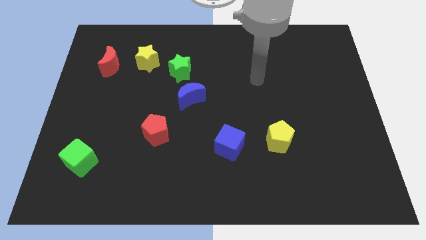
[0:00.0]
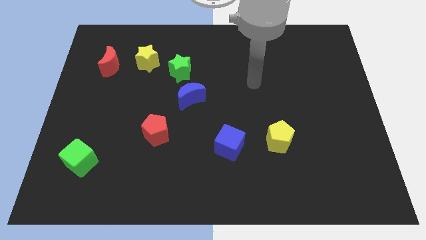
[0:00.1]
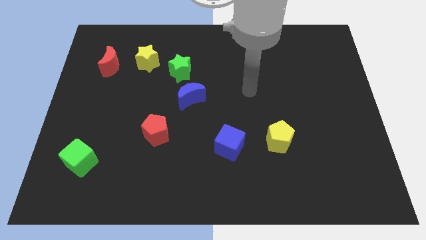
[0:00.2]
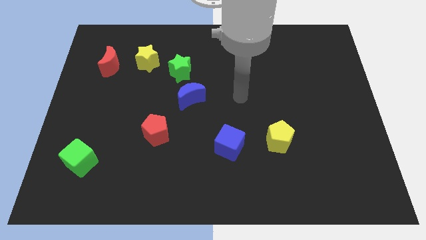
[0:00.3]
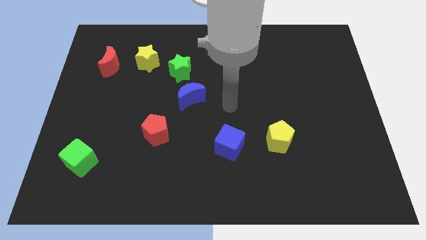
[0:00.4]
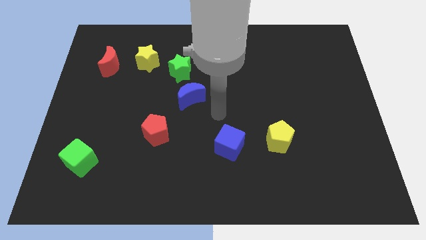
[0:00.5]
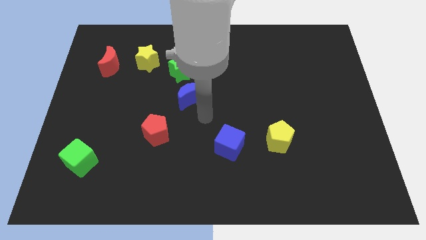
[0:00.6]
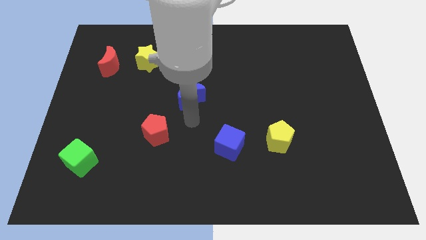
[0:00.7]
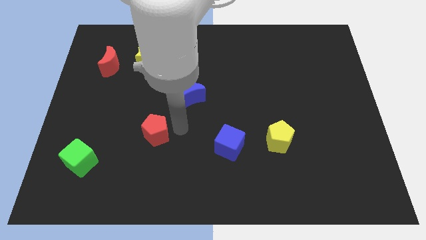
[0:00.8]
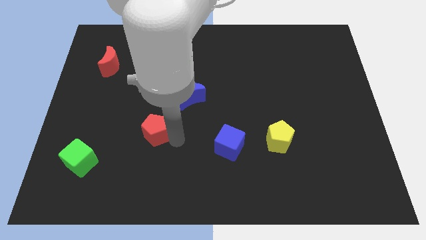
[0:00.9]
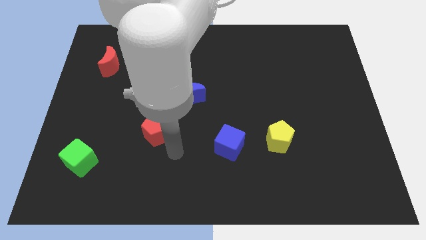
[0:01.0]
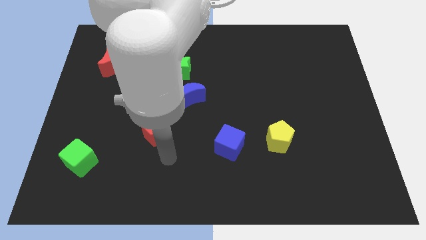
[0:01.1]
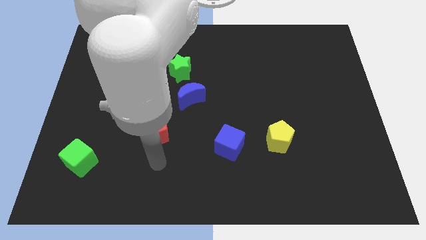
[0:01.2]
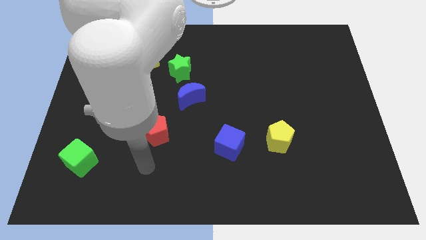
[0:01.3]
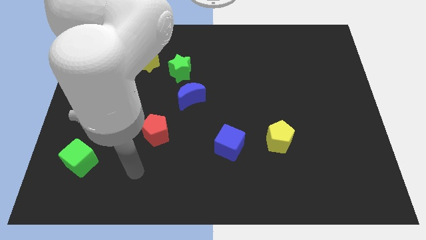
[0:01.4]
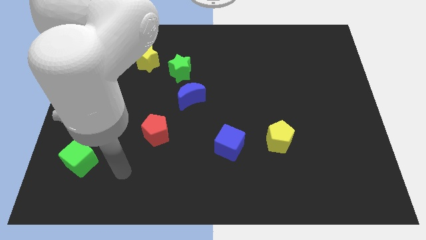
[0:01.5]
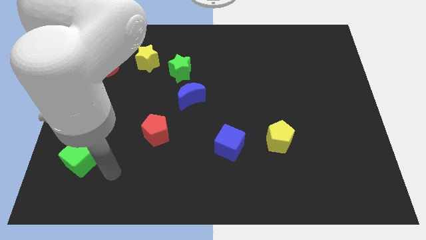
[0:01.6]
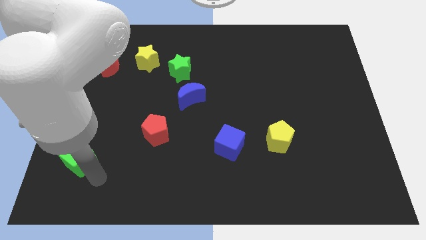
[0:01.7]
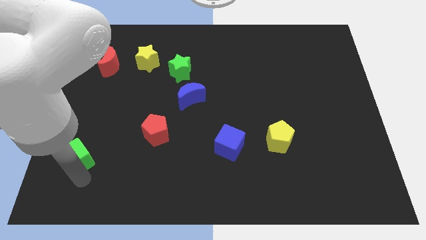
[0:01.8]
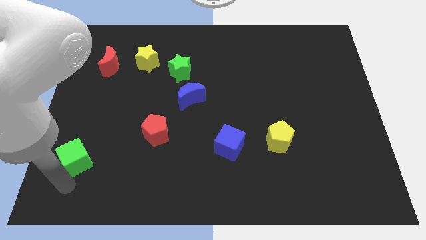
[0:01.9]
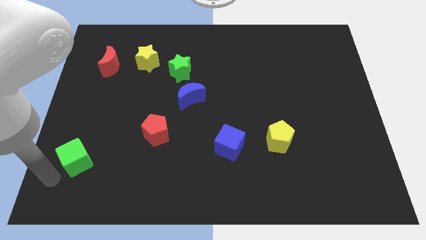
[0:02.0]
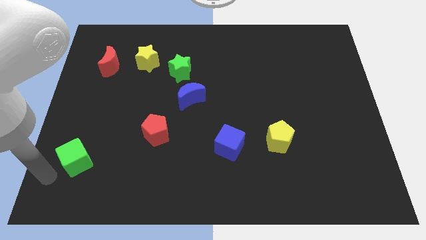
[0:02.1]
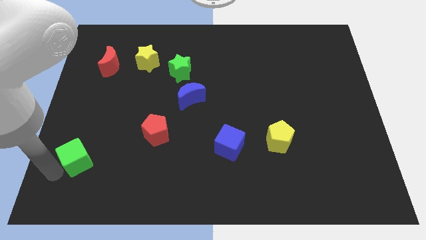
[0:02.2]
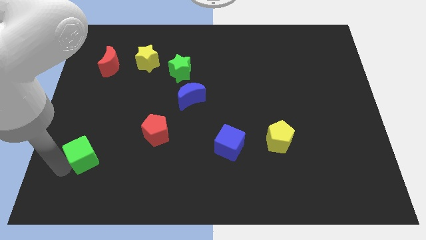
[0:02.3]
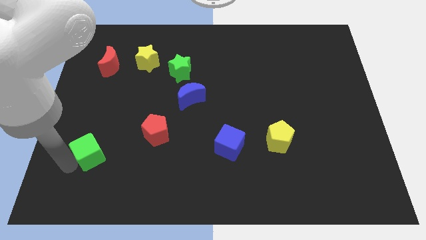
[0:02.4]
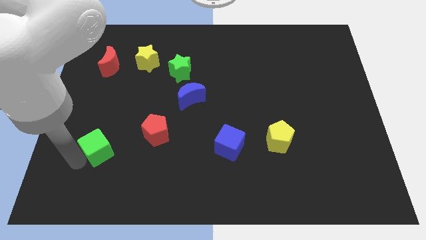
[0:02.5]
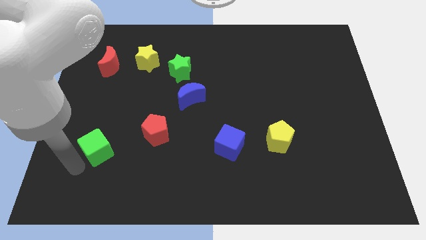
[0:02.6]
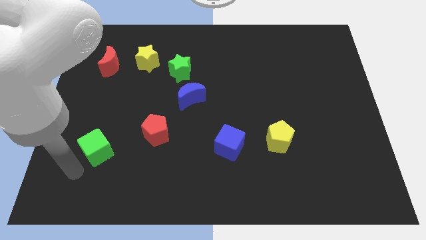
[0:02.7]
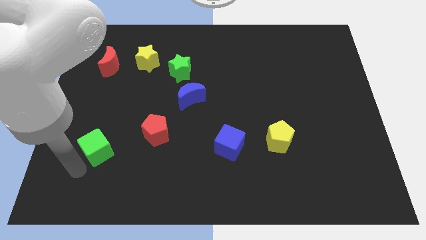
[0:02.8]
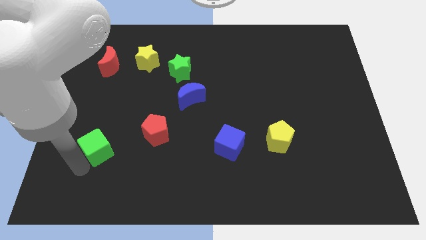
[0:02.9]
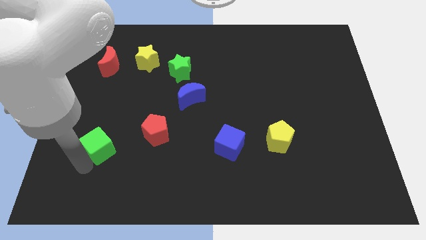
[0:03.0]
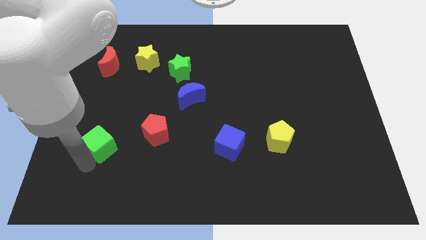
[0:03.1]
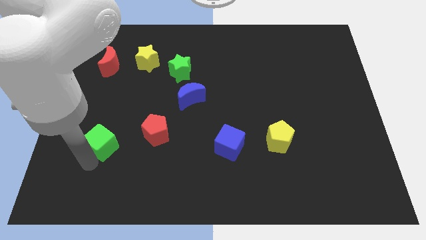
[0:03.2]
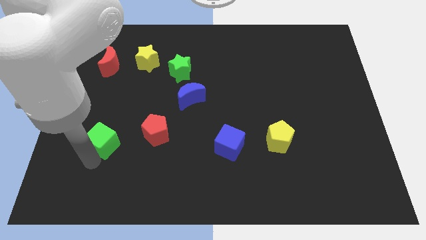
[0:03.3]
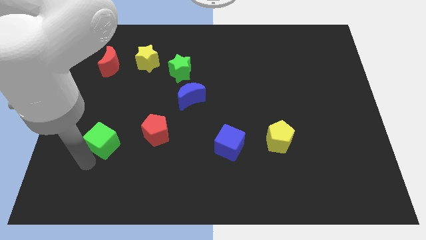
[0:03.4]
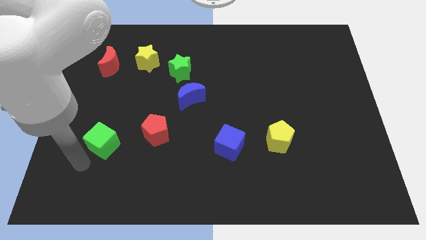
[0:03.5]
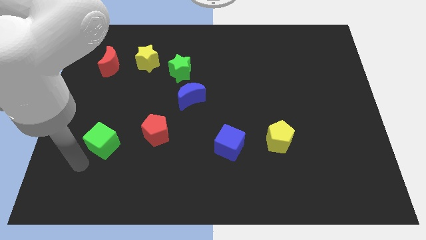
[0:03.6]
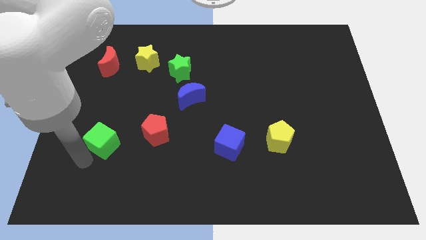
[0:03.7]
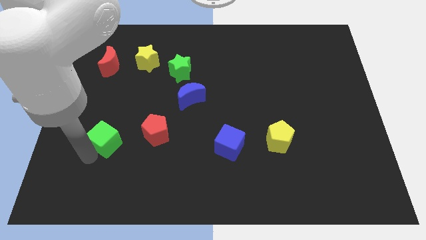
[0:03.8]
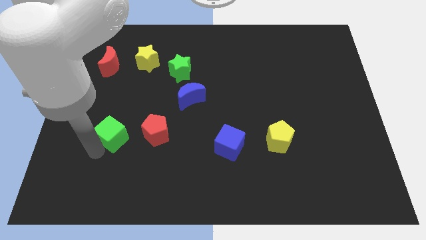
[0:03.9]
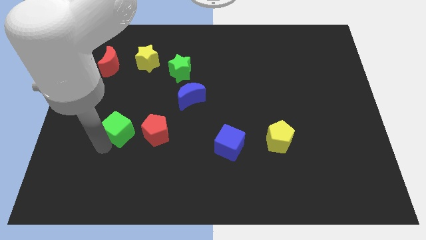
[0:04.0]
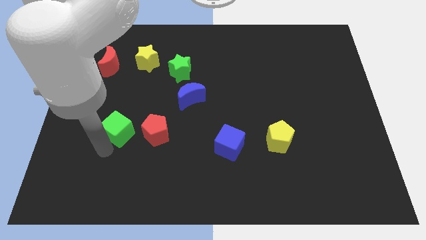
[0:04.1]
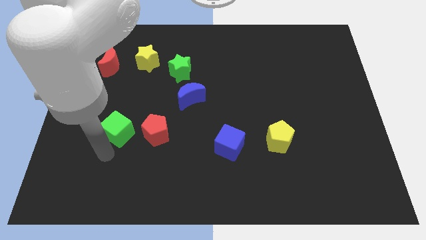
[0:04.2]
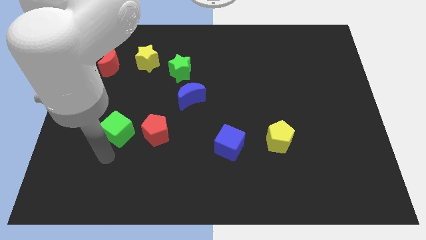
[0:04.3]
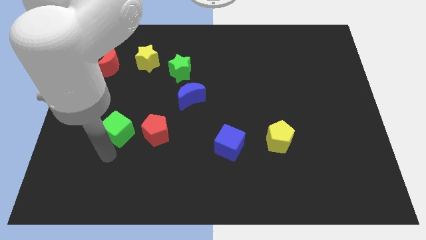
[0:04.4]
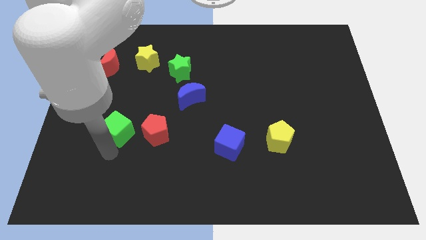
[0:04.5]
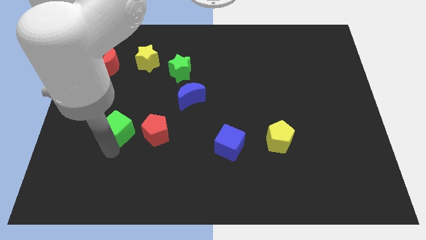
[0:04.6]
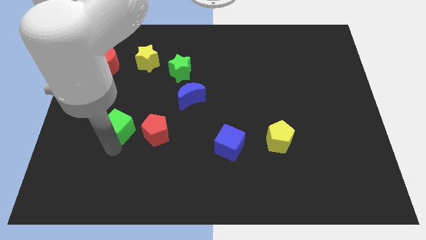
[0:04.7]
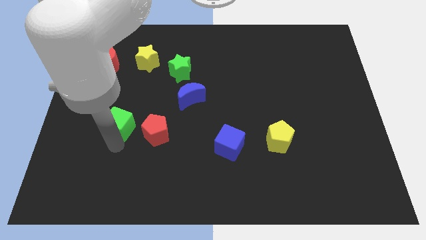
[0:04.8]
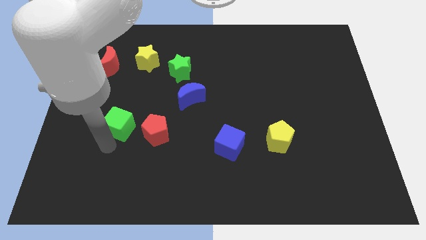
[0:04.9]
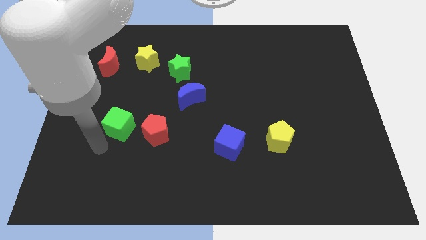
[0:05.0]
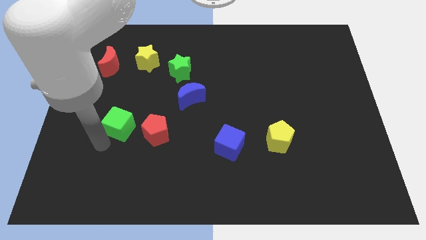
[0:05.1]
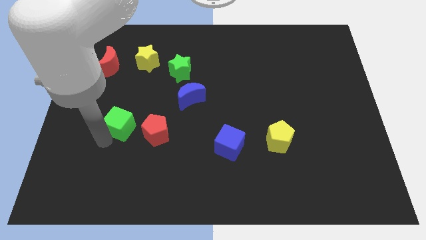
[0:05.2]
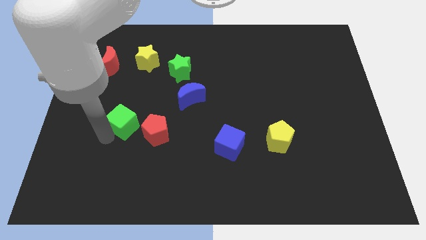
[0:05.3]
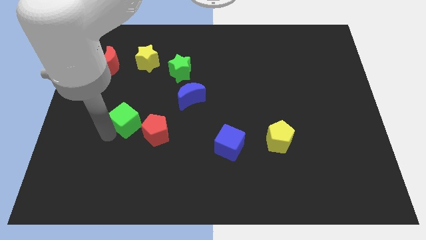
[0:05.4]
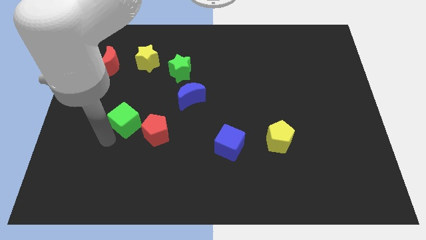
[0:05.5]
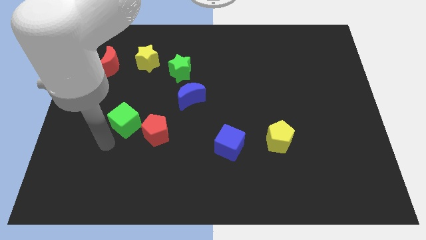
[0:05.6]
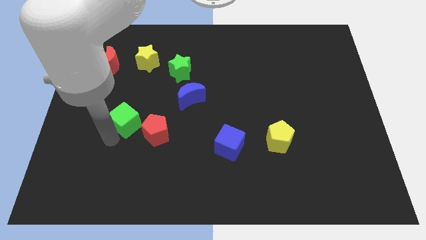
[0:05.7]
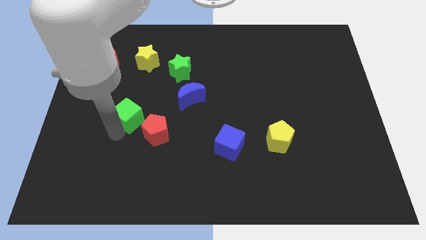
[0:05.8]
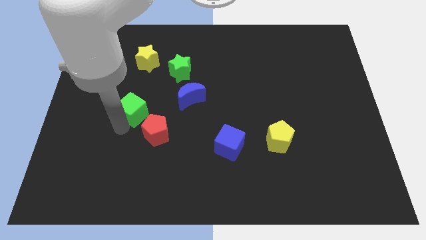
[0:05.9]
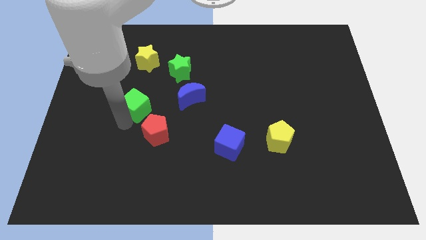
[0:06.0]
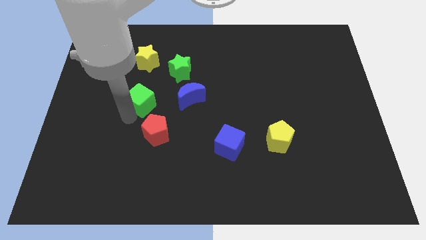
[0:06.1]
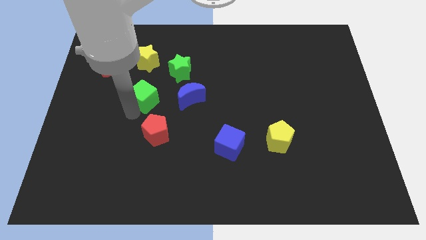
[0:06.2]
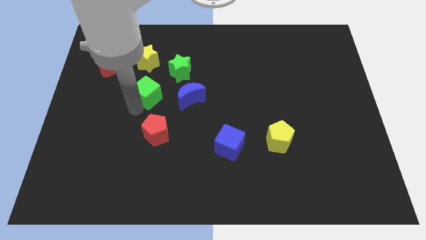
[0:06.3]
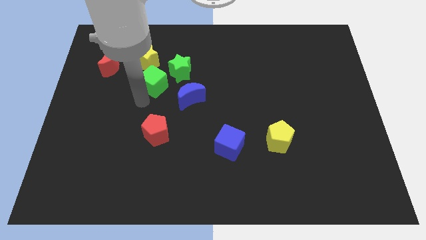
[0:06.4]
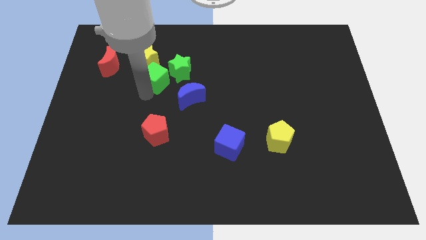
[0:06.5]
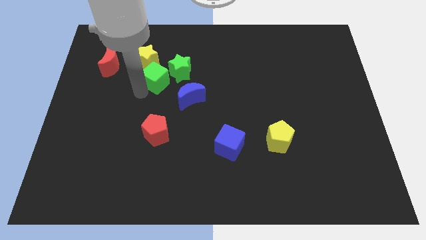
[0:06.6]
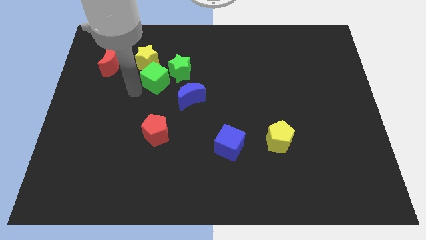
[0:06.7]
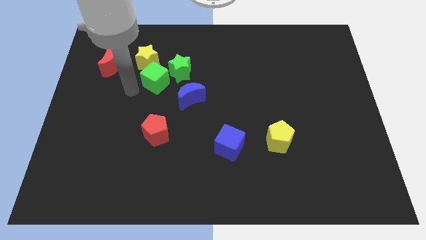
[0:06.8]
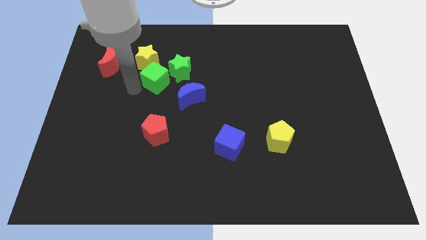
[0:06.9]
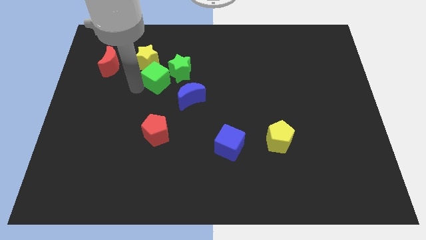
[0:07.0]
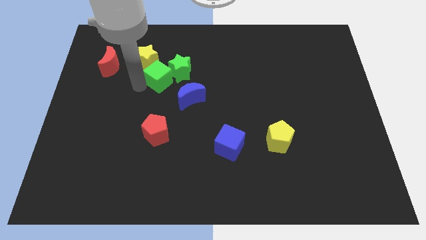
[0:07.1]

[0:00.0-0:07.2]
put the green cube towards the green star
